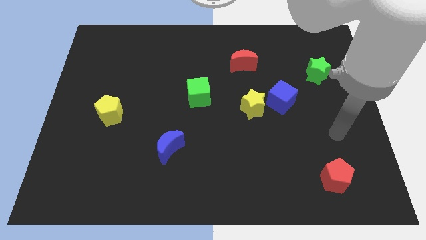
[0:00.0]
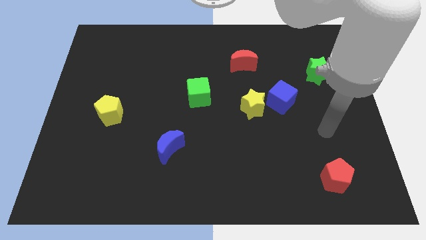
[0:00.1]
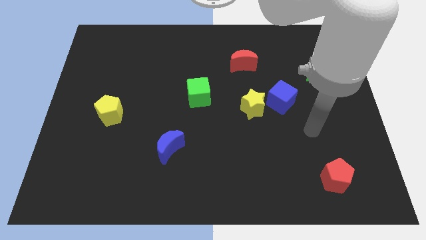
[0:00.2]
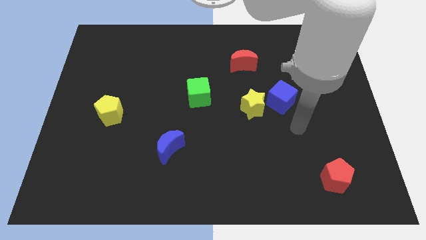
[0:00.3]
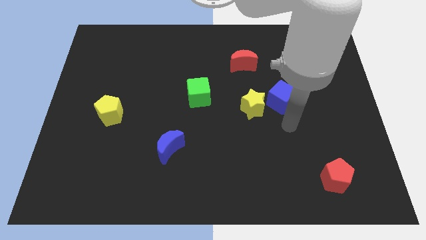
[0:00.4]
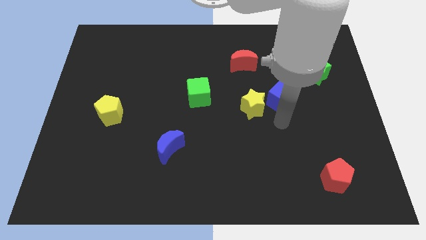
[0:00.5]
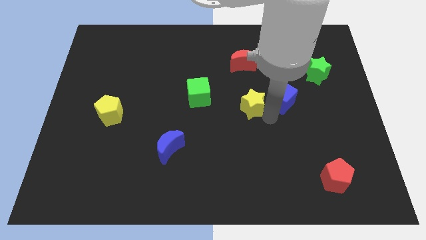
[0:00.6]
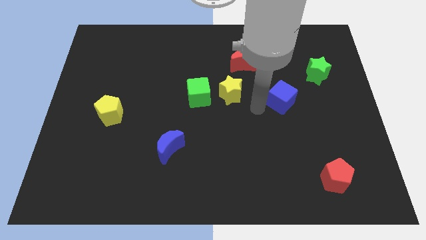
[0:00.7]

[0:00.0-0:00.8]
separate the blue cube from the yellow star

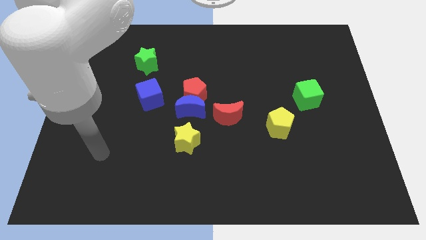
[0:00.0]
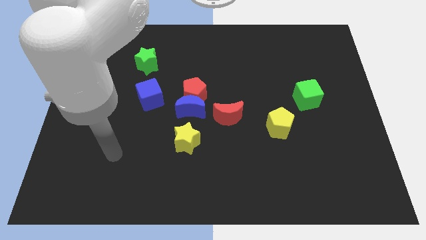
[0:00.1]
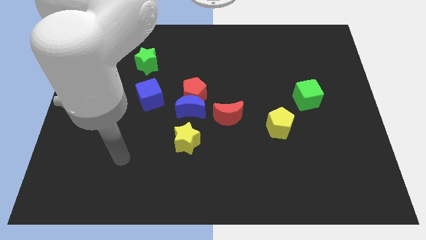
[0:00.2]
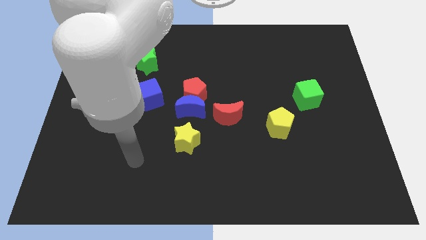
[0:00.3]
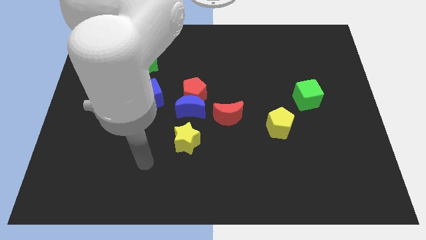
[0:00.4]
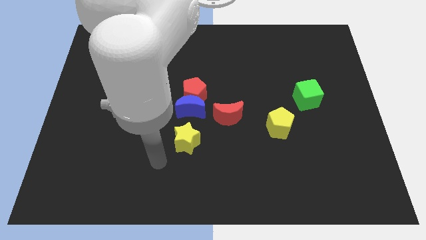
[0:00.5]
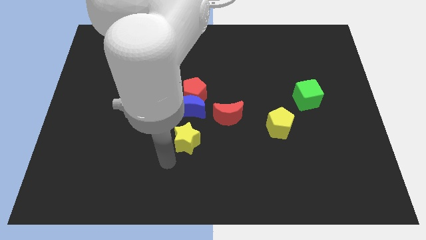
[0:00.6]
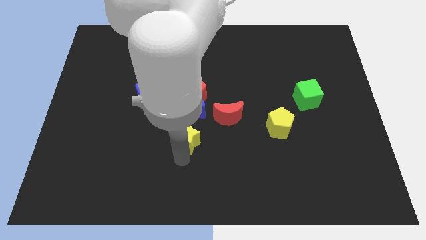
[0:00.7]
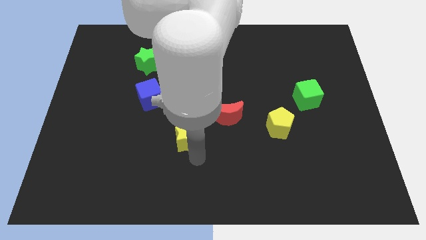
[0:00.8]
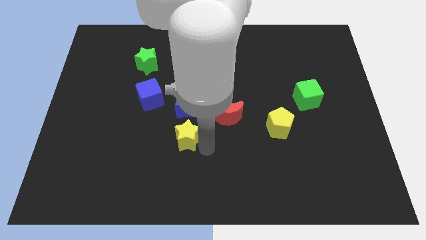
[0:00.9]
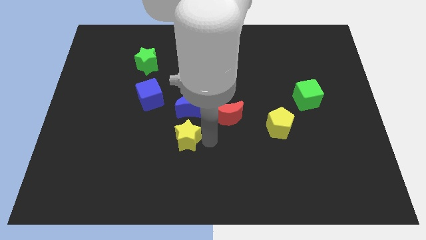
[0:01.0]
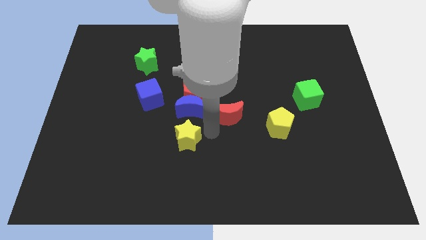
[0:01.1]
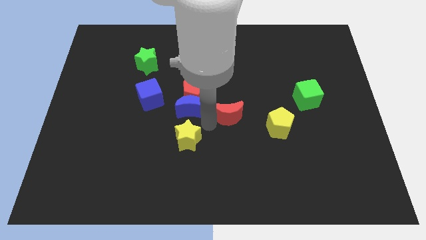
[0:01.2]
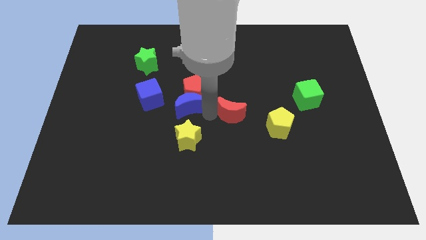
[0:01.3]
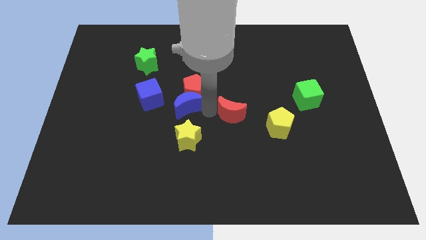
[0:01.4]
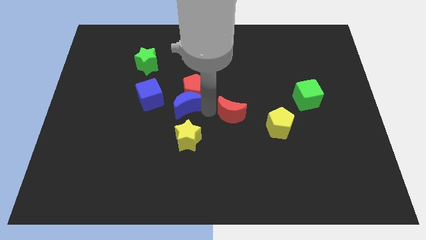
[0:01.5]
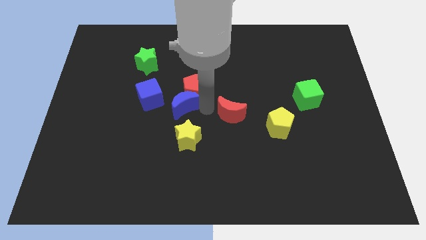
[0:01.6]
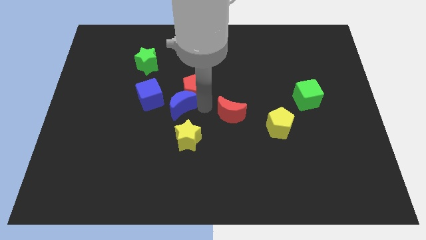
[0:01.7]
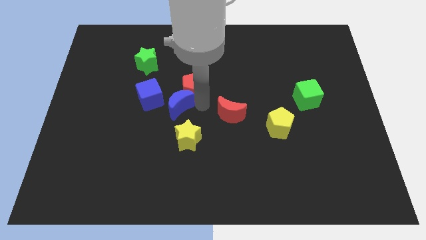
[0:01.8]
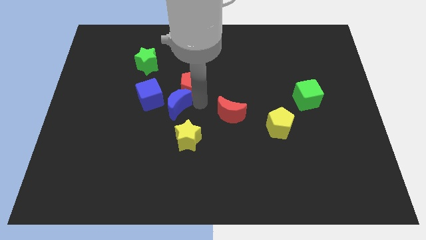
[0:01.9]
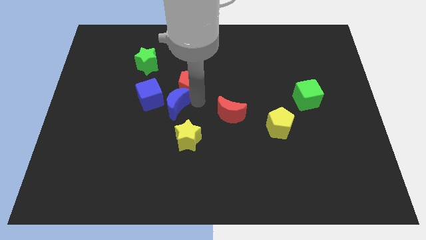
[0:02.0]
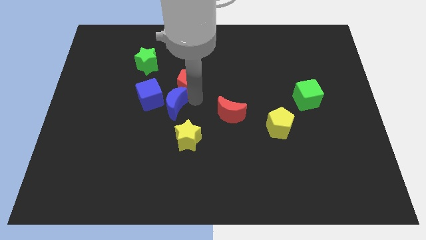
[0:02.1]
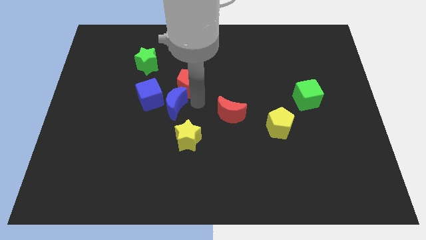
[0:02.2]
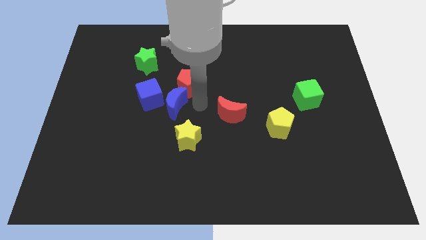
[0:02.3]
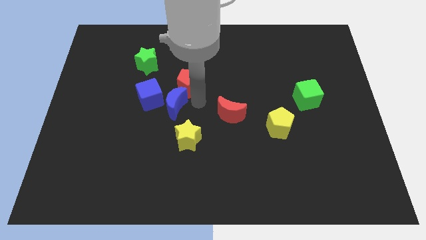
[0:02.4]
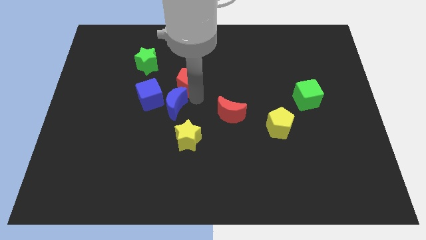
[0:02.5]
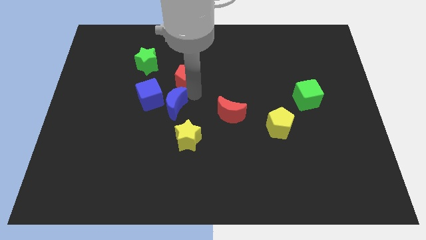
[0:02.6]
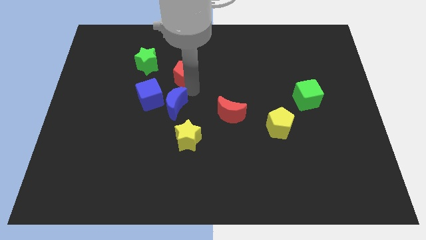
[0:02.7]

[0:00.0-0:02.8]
separate the red pentagon from the blue moon and red moon

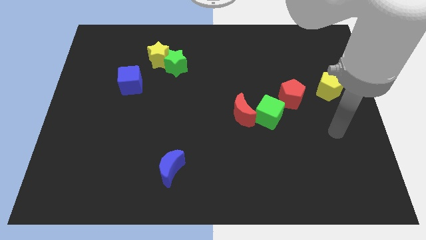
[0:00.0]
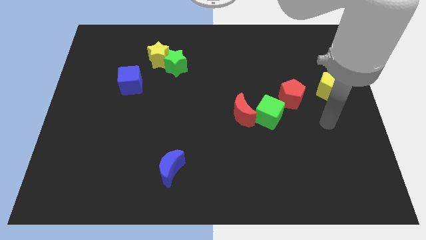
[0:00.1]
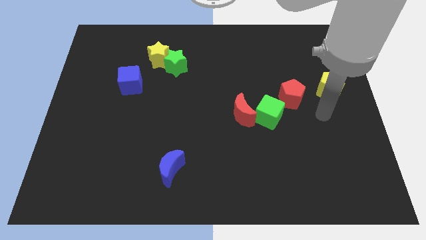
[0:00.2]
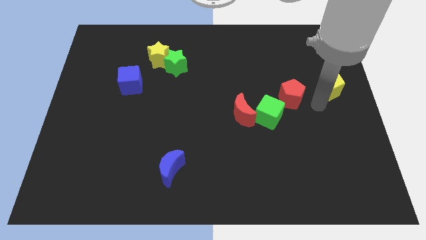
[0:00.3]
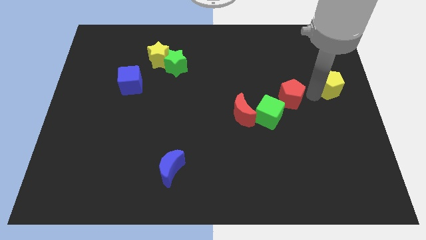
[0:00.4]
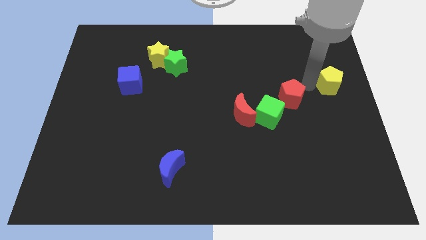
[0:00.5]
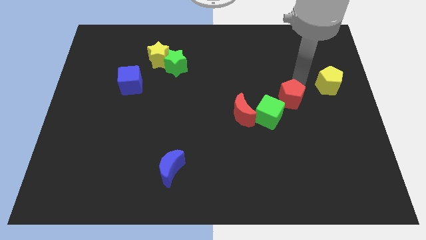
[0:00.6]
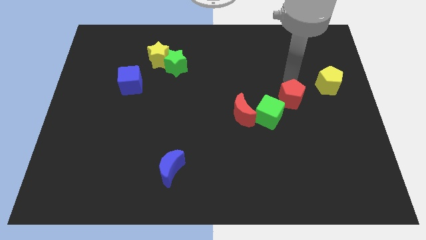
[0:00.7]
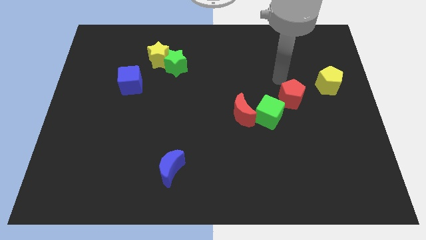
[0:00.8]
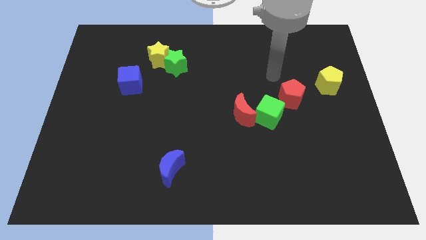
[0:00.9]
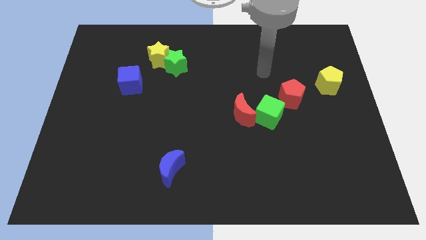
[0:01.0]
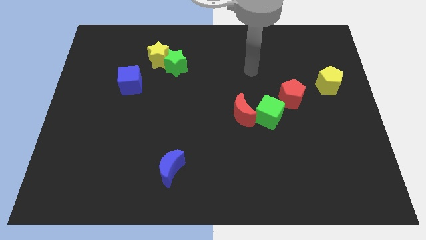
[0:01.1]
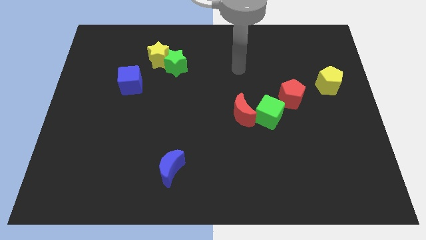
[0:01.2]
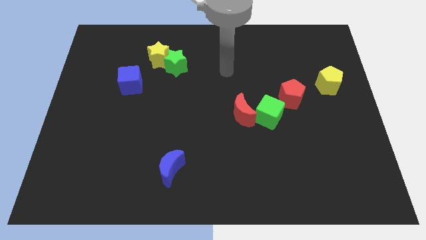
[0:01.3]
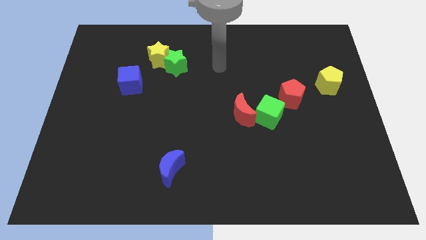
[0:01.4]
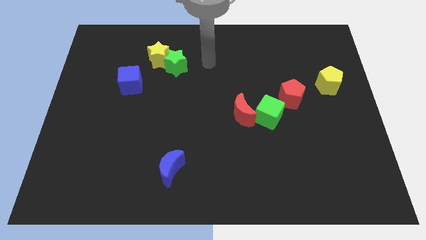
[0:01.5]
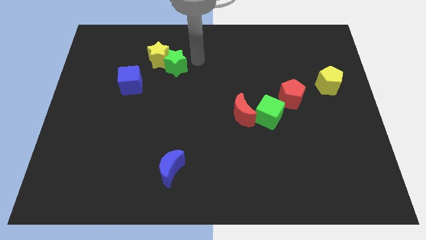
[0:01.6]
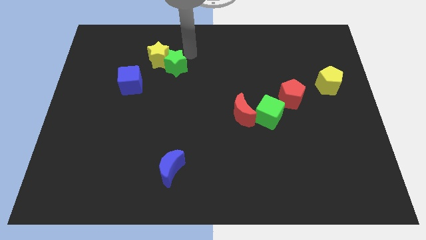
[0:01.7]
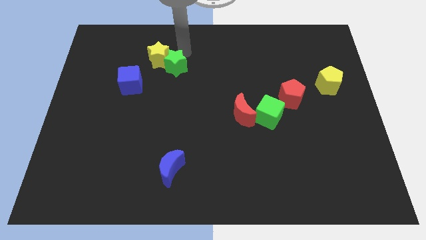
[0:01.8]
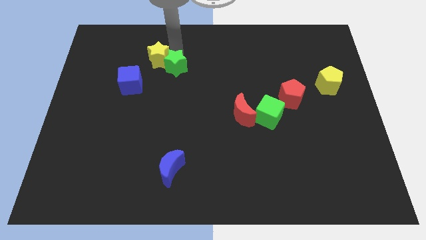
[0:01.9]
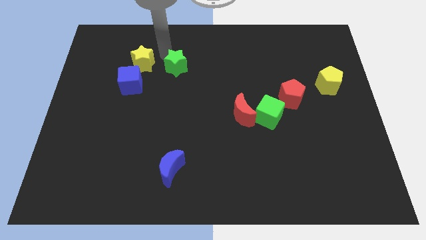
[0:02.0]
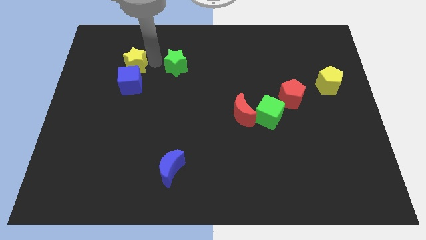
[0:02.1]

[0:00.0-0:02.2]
separate the green star from the yellow star

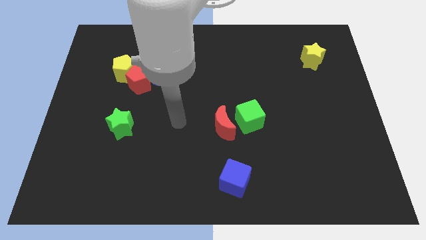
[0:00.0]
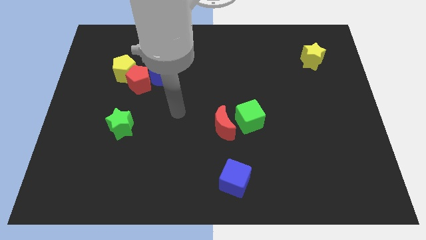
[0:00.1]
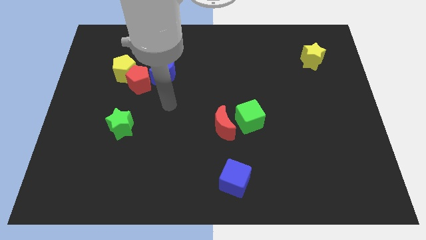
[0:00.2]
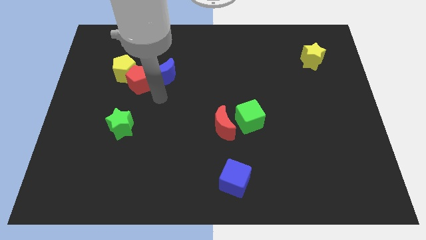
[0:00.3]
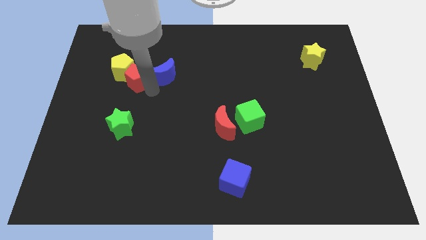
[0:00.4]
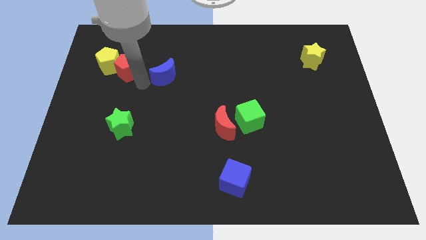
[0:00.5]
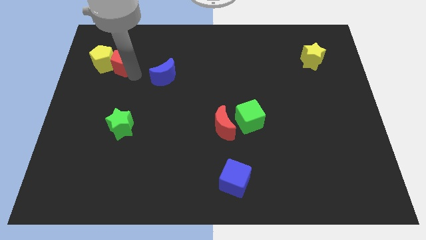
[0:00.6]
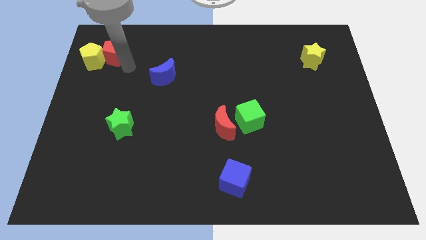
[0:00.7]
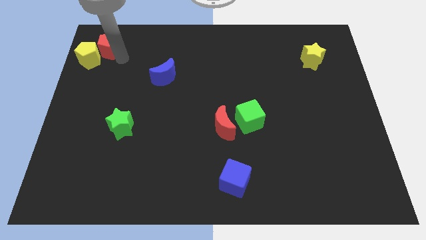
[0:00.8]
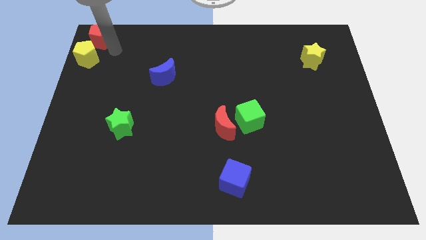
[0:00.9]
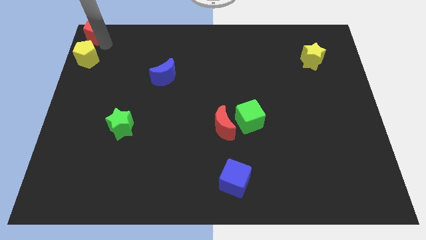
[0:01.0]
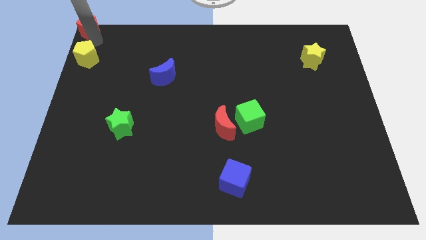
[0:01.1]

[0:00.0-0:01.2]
move the yellow pentagon away from the red pentagon

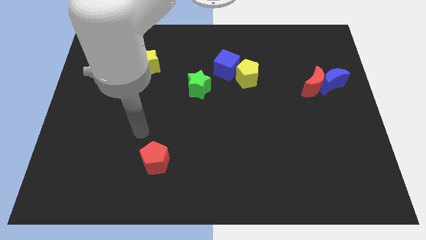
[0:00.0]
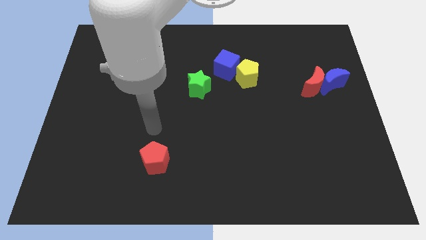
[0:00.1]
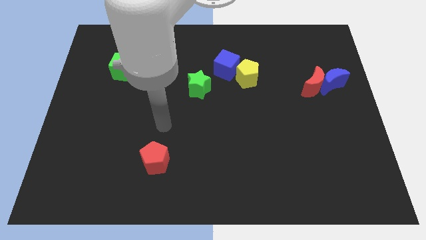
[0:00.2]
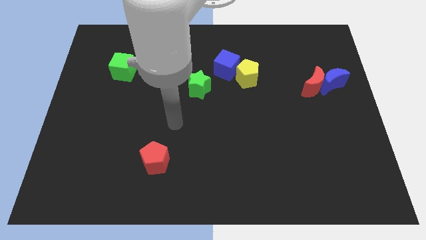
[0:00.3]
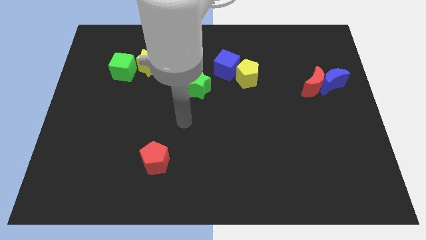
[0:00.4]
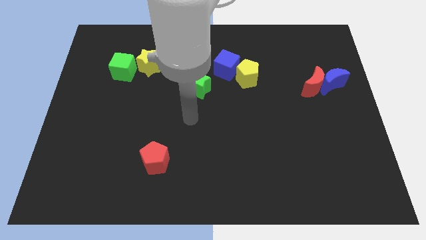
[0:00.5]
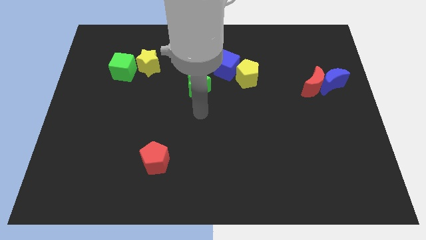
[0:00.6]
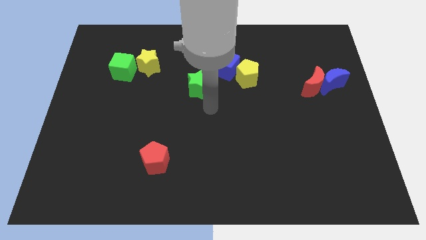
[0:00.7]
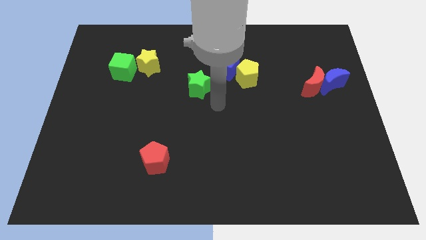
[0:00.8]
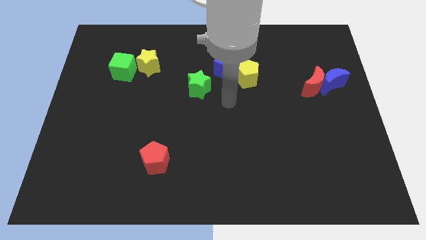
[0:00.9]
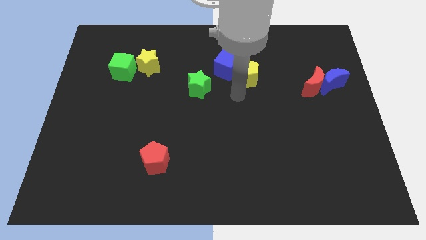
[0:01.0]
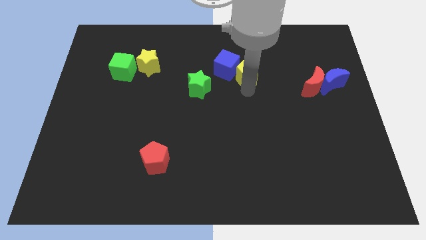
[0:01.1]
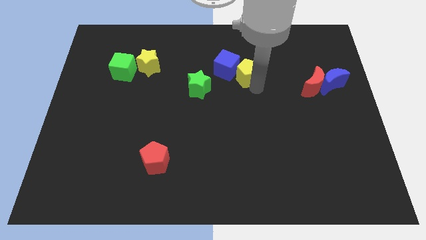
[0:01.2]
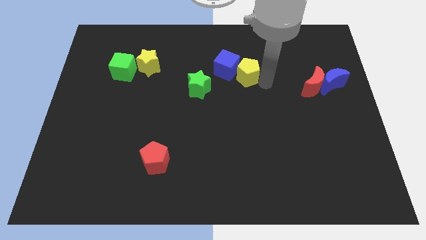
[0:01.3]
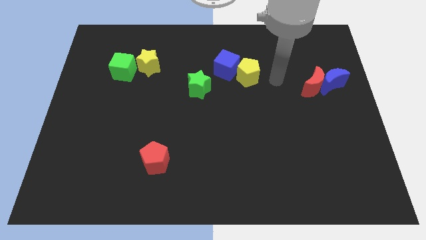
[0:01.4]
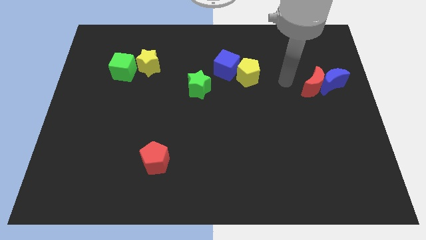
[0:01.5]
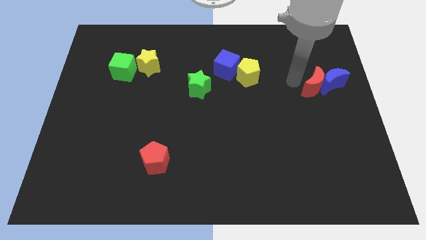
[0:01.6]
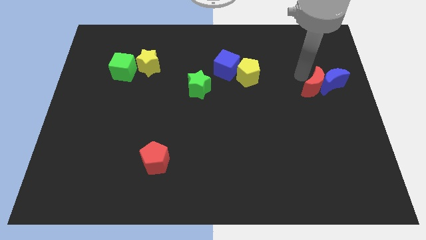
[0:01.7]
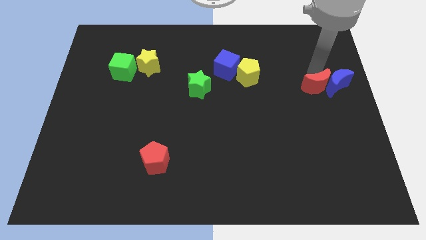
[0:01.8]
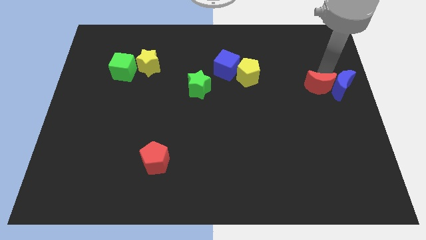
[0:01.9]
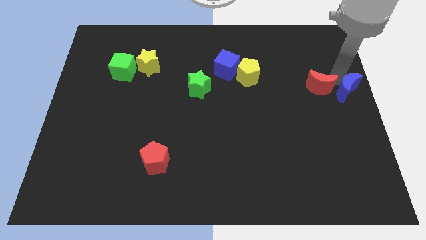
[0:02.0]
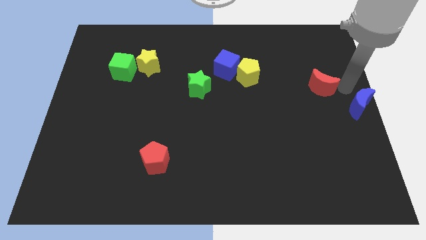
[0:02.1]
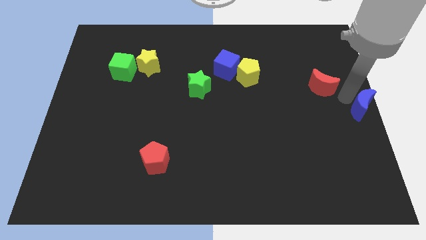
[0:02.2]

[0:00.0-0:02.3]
move the red moon away from the blue moon
